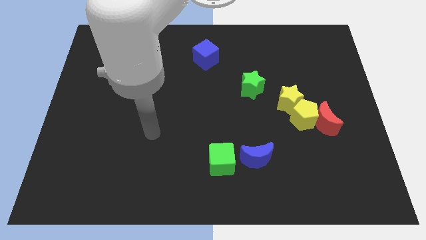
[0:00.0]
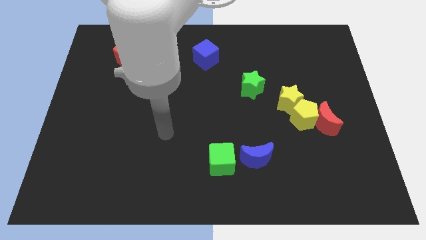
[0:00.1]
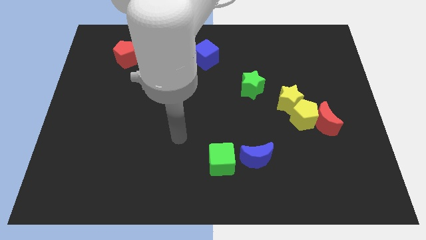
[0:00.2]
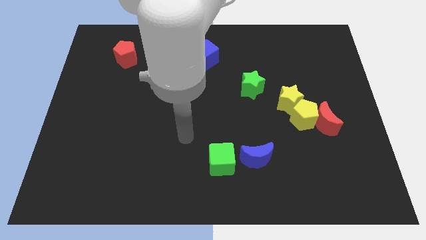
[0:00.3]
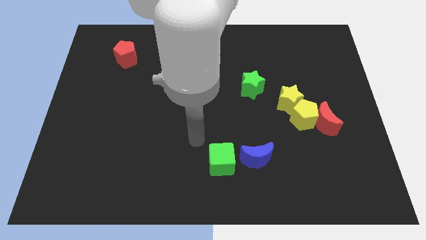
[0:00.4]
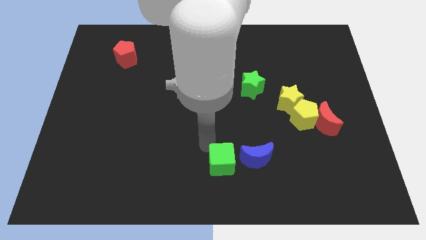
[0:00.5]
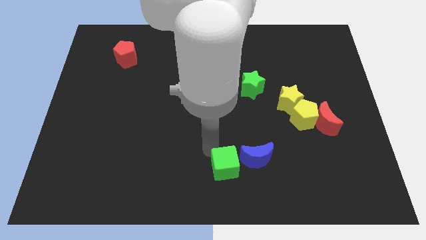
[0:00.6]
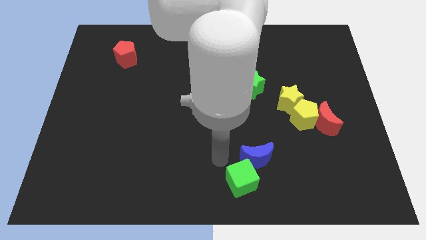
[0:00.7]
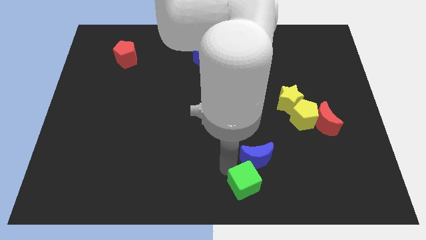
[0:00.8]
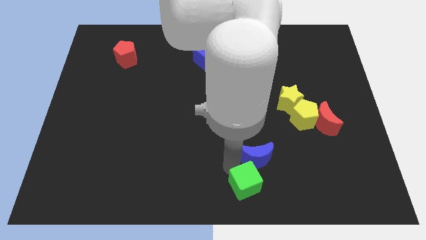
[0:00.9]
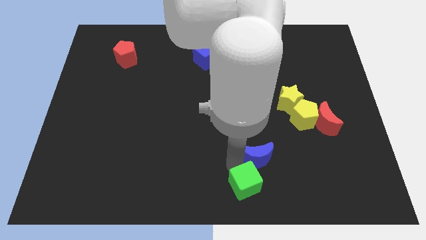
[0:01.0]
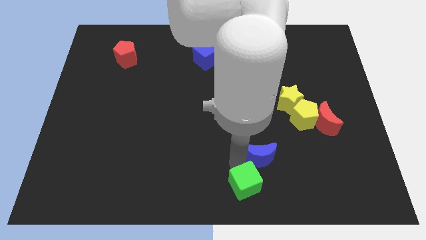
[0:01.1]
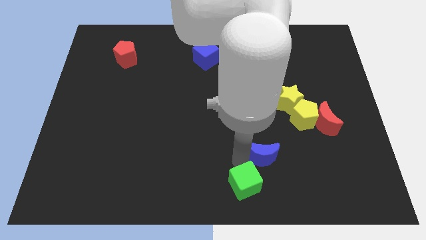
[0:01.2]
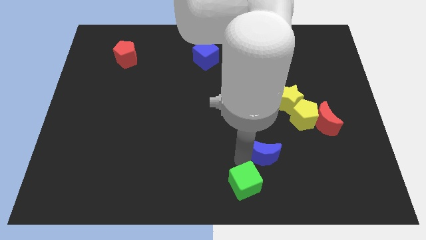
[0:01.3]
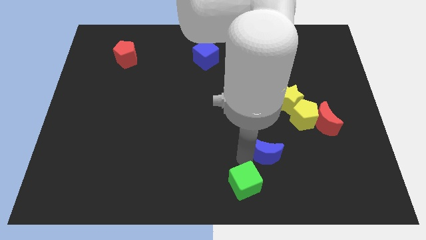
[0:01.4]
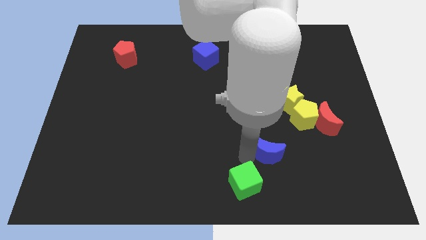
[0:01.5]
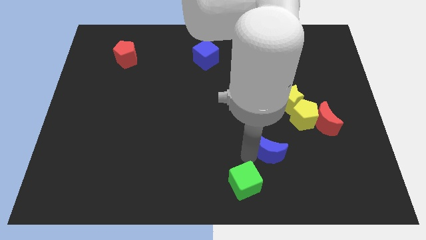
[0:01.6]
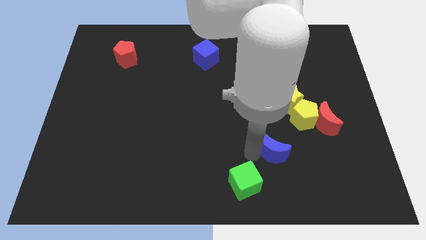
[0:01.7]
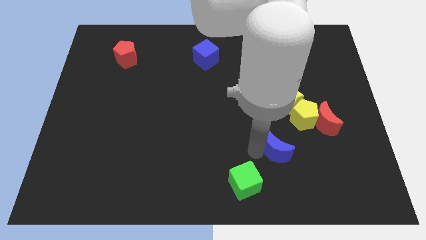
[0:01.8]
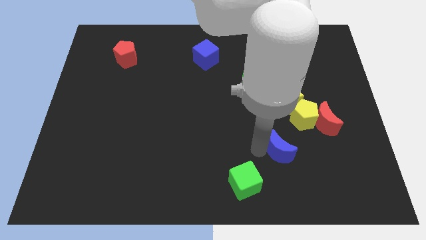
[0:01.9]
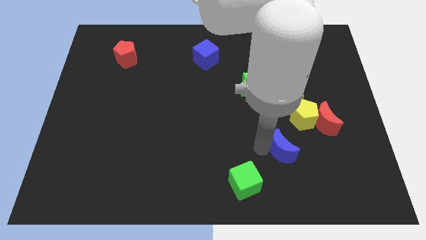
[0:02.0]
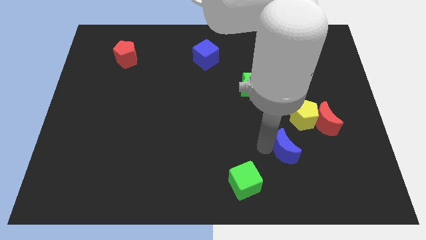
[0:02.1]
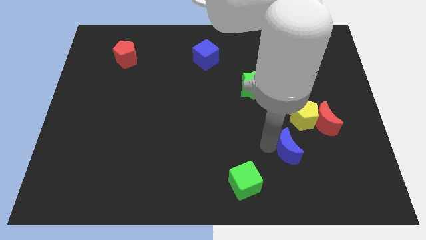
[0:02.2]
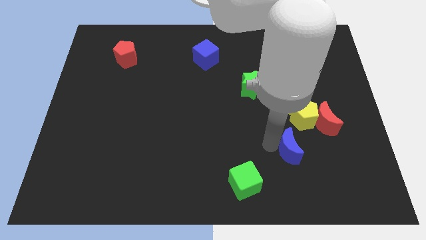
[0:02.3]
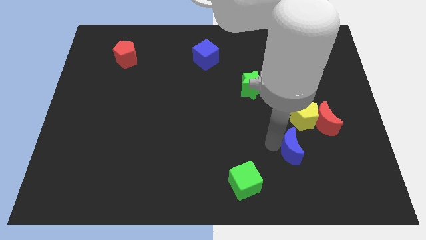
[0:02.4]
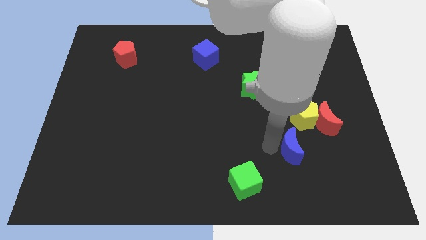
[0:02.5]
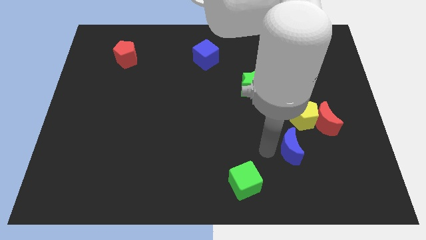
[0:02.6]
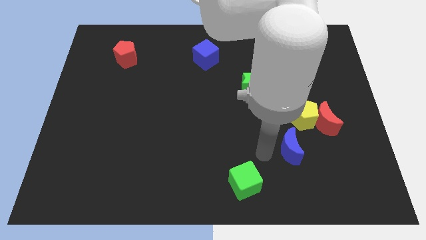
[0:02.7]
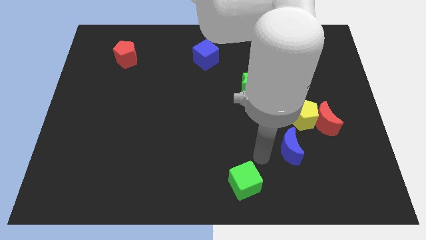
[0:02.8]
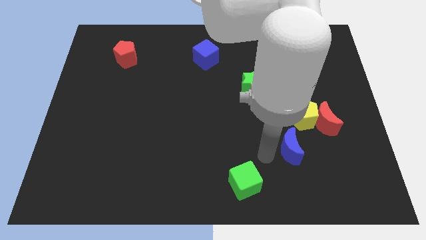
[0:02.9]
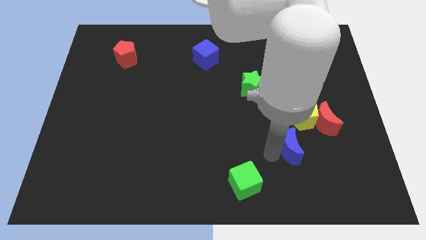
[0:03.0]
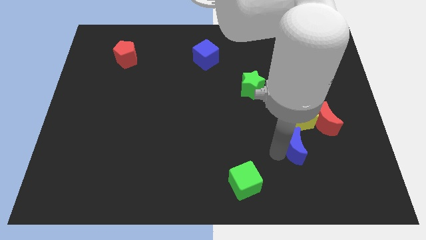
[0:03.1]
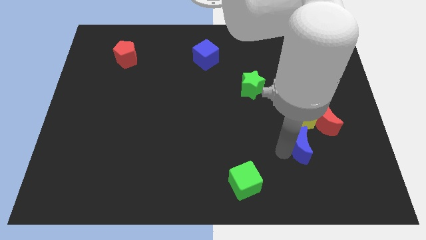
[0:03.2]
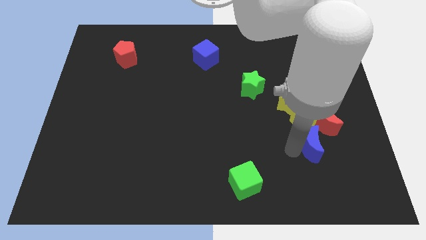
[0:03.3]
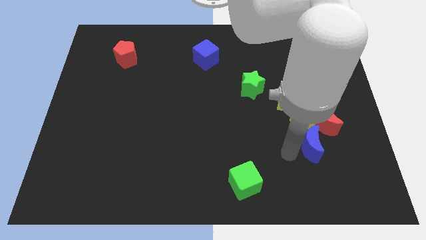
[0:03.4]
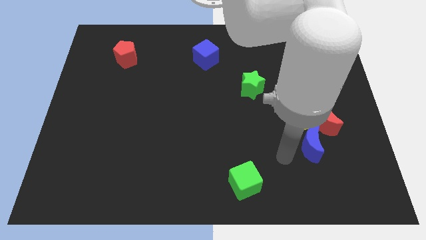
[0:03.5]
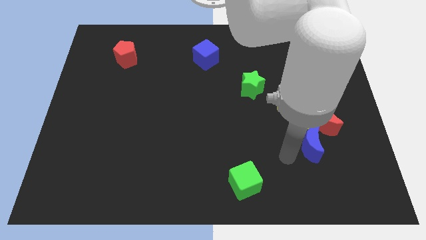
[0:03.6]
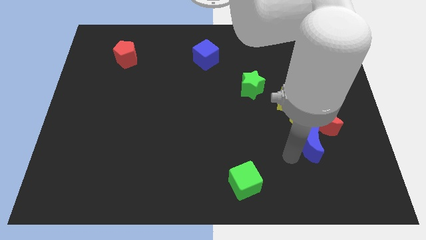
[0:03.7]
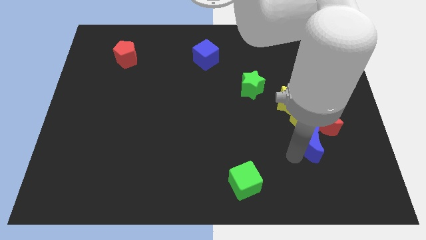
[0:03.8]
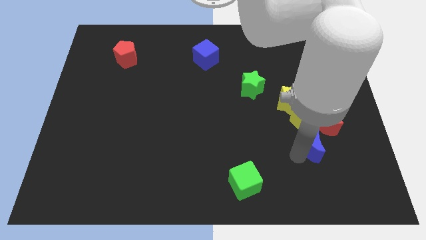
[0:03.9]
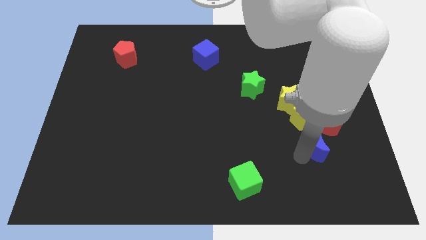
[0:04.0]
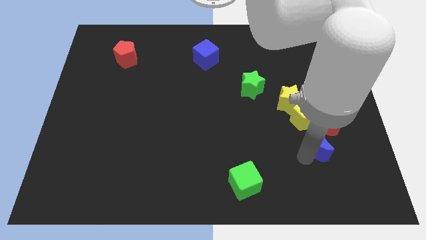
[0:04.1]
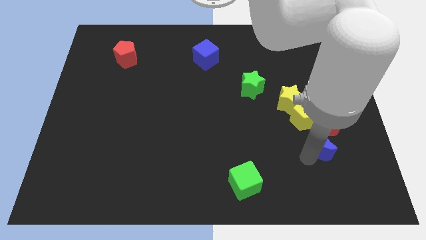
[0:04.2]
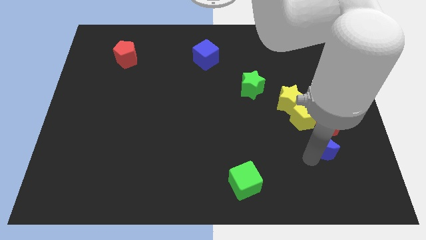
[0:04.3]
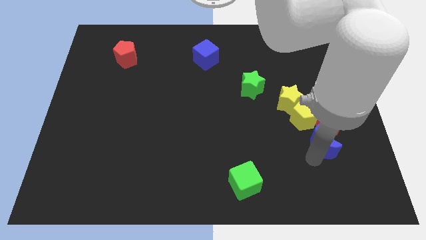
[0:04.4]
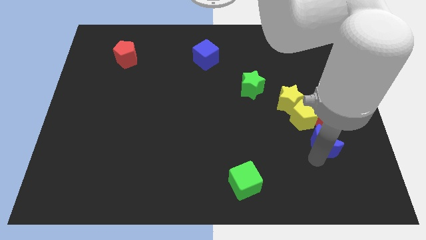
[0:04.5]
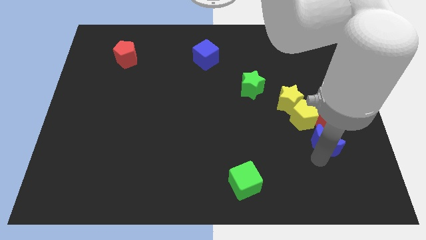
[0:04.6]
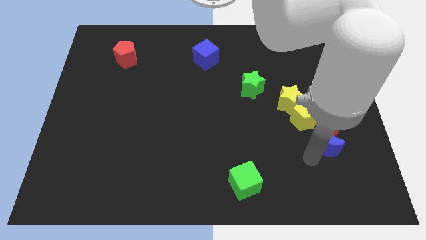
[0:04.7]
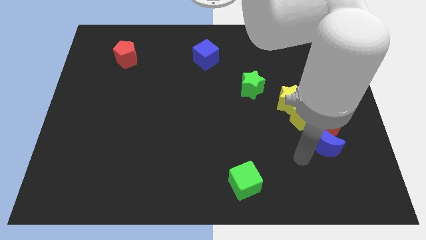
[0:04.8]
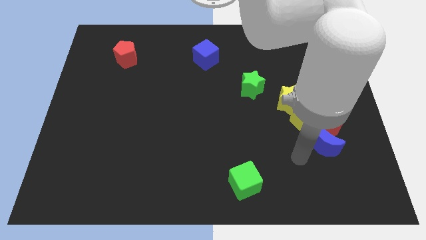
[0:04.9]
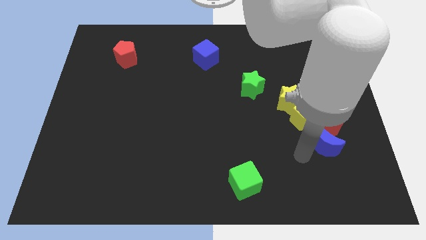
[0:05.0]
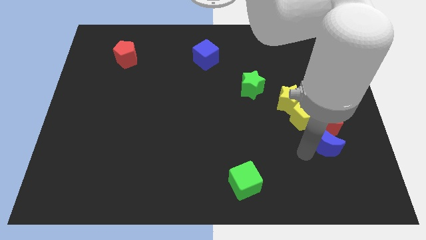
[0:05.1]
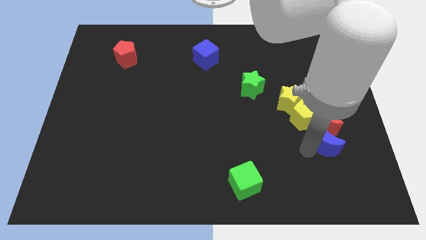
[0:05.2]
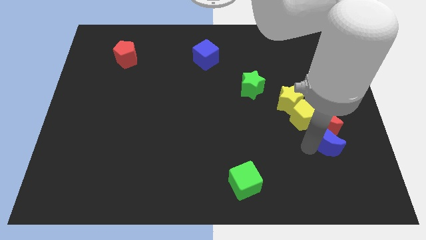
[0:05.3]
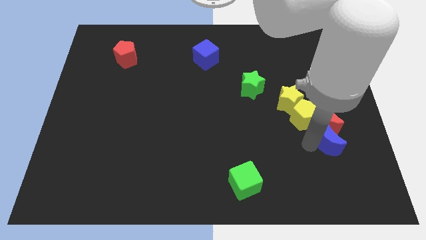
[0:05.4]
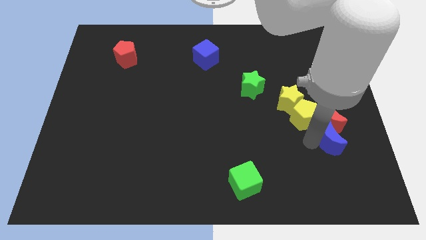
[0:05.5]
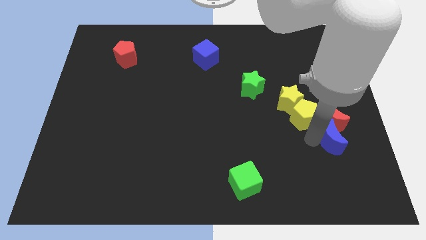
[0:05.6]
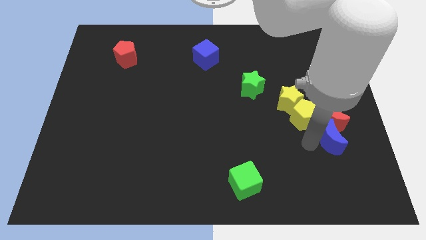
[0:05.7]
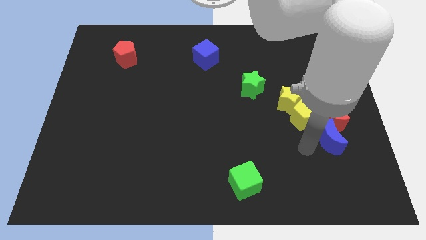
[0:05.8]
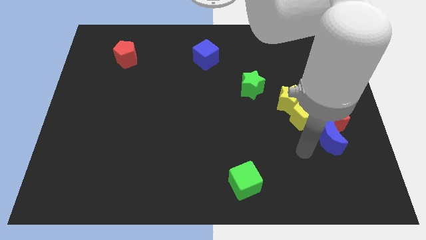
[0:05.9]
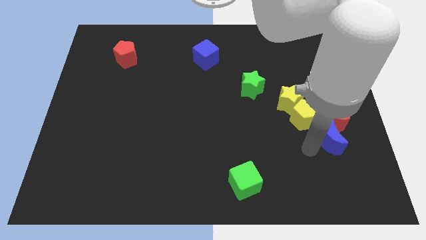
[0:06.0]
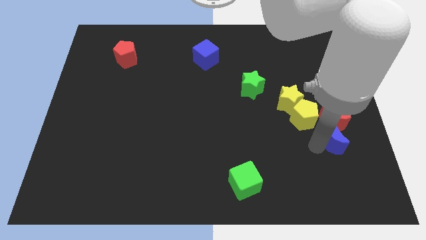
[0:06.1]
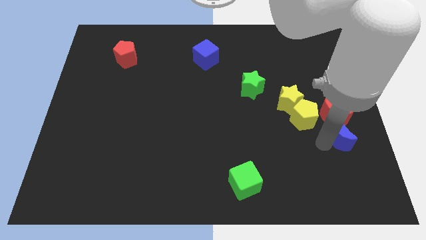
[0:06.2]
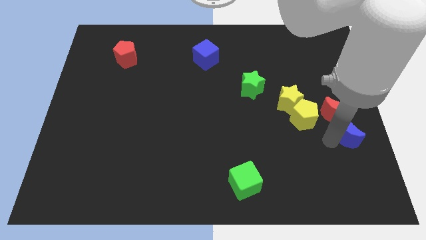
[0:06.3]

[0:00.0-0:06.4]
slide the blue moon to the center right

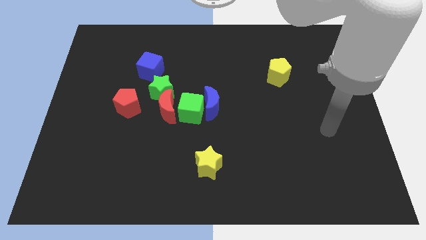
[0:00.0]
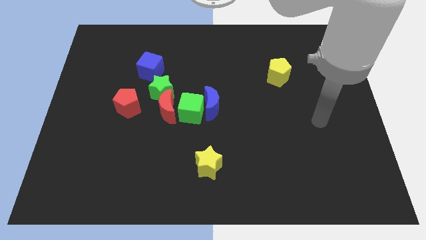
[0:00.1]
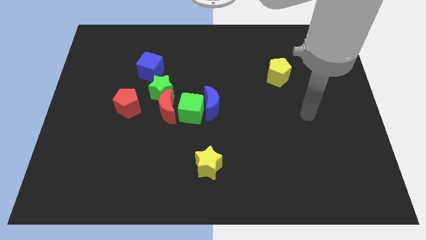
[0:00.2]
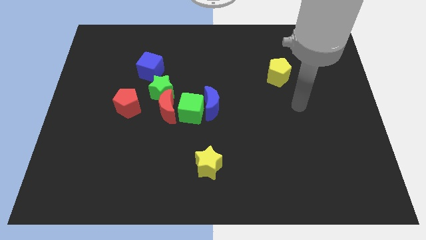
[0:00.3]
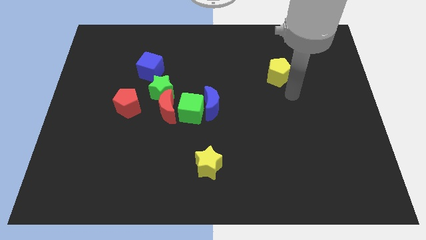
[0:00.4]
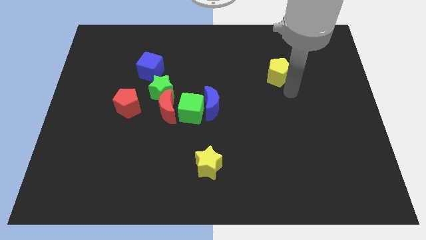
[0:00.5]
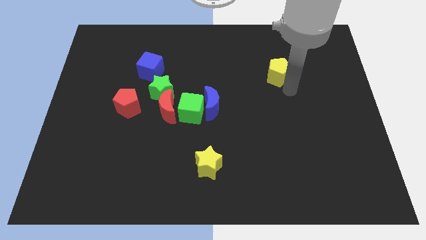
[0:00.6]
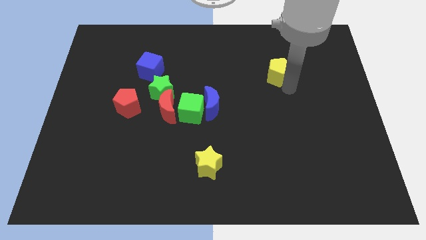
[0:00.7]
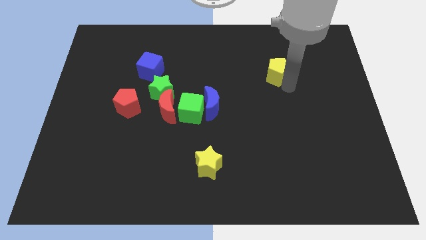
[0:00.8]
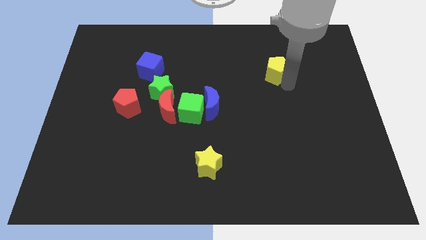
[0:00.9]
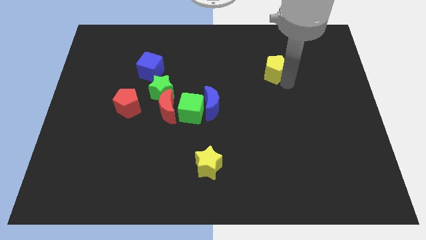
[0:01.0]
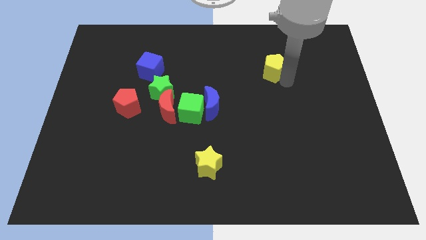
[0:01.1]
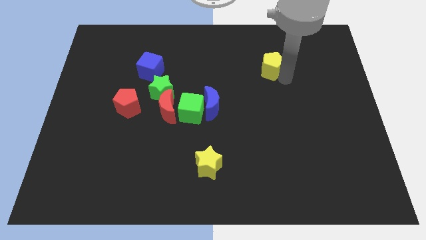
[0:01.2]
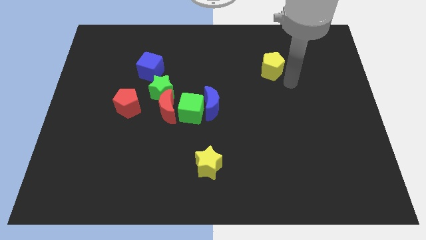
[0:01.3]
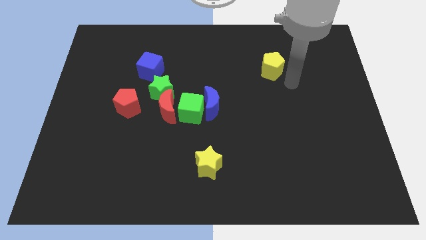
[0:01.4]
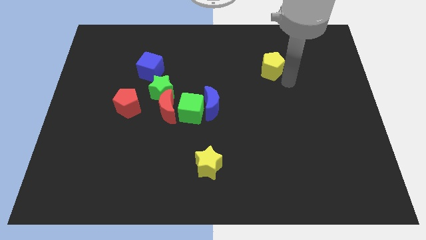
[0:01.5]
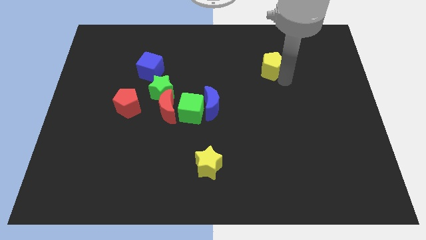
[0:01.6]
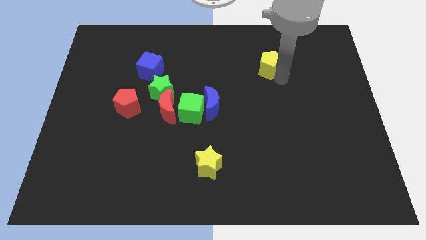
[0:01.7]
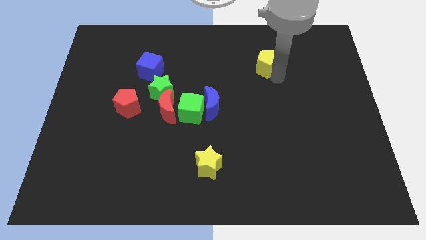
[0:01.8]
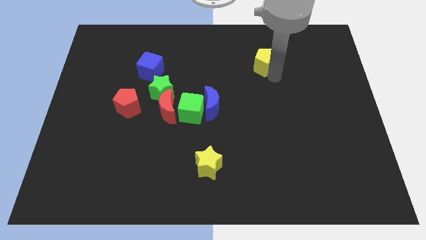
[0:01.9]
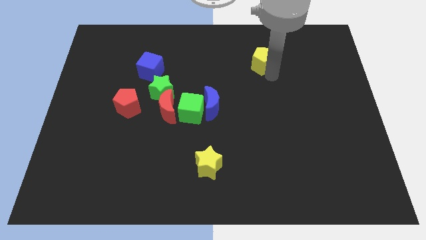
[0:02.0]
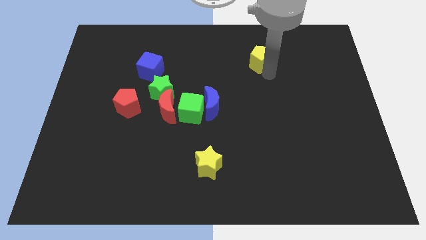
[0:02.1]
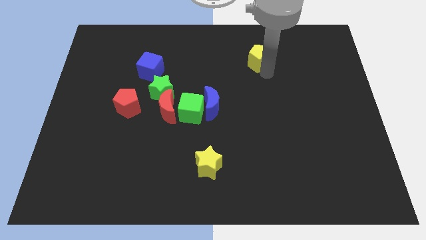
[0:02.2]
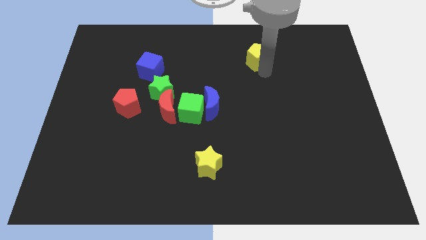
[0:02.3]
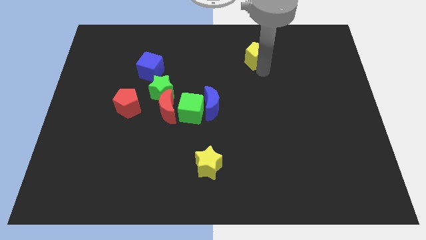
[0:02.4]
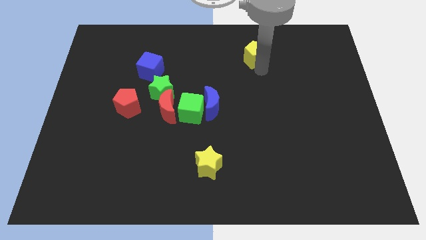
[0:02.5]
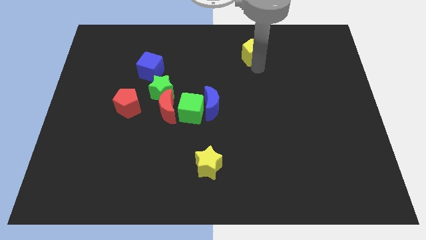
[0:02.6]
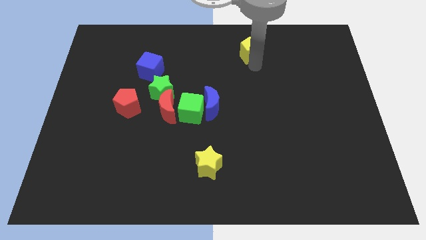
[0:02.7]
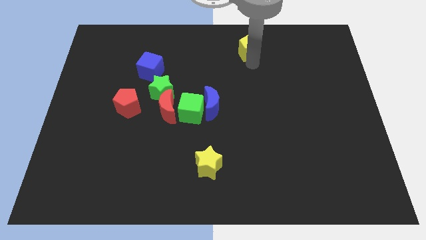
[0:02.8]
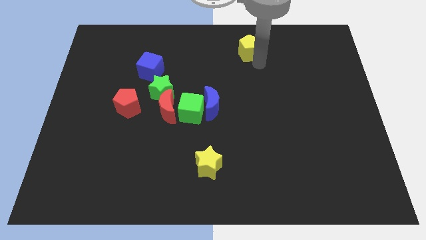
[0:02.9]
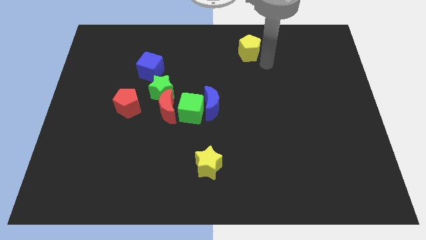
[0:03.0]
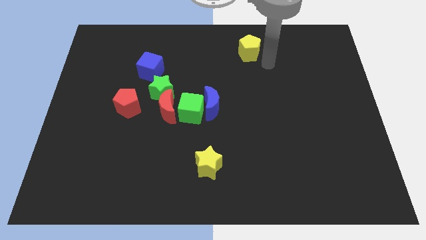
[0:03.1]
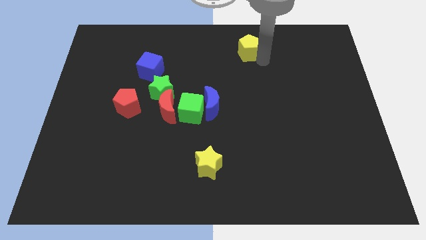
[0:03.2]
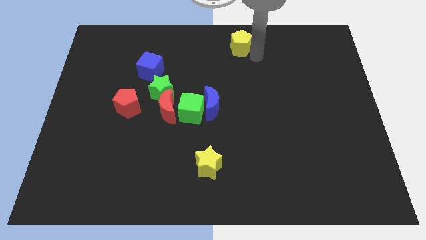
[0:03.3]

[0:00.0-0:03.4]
move the yellow pentagon to the towards your base
